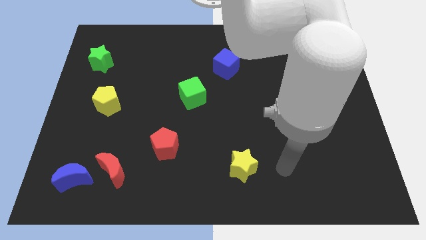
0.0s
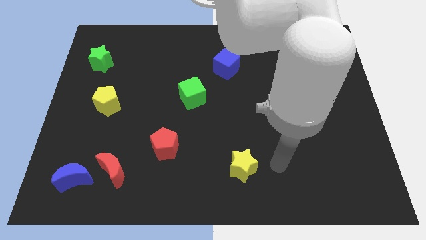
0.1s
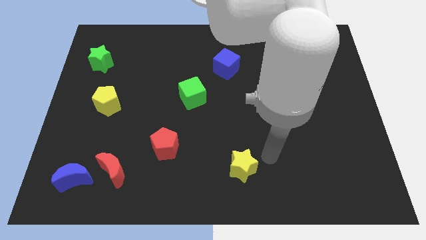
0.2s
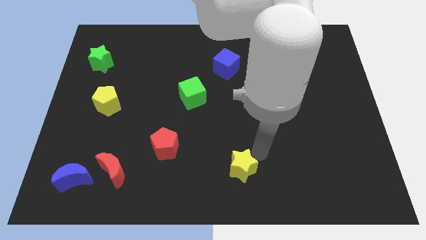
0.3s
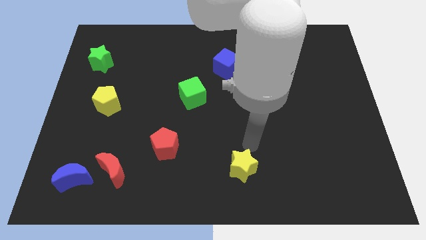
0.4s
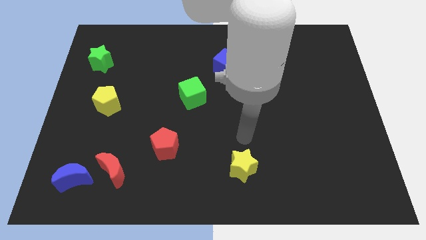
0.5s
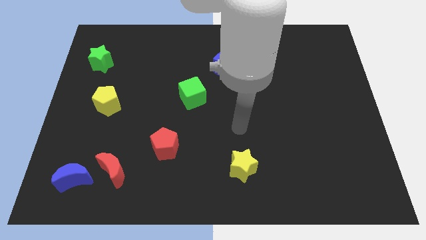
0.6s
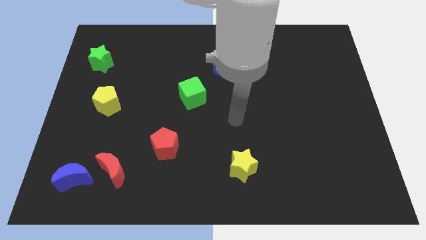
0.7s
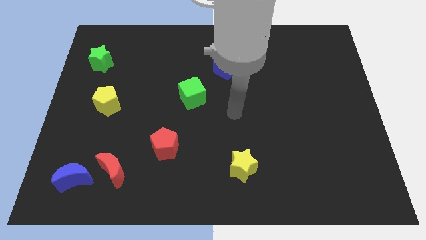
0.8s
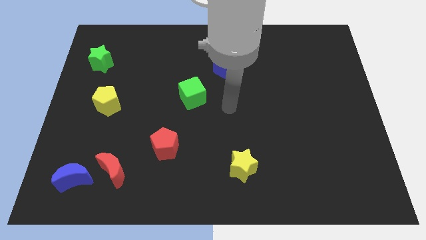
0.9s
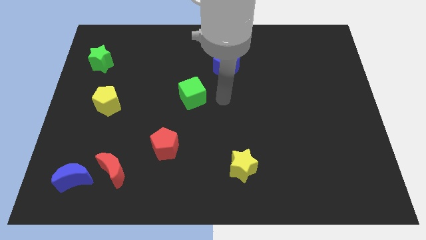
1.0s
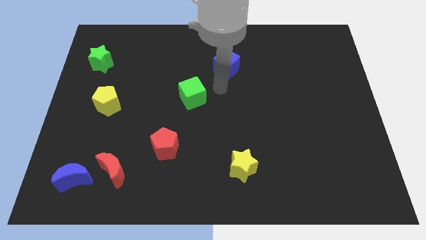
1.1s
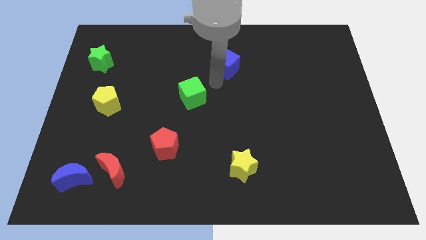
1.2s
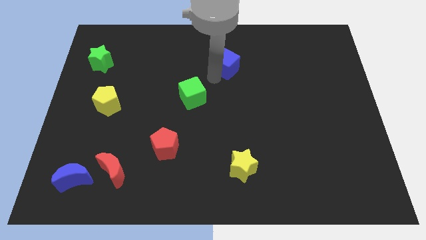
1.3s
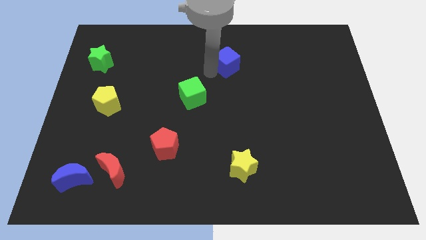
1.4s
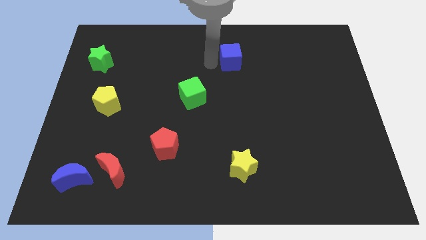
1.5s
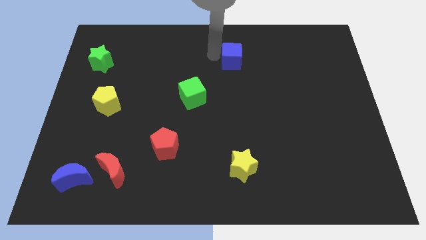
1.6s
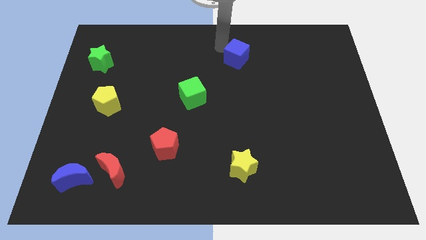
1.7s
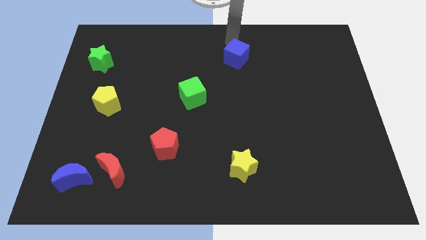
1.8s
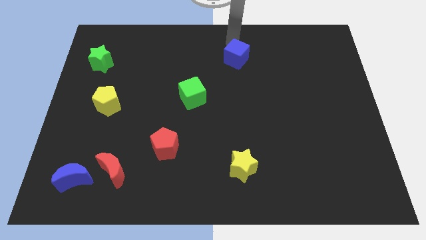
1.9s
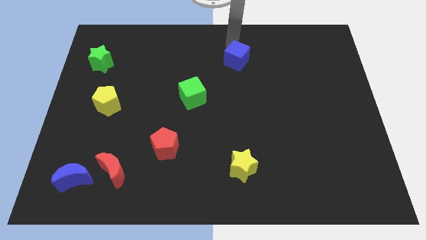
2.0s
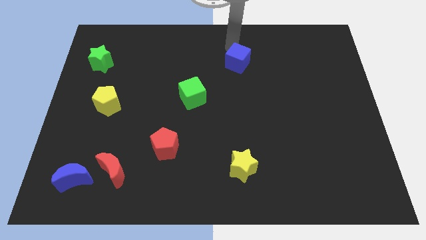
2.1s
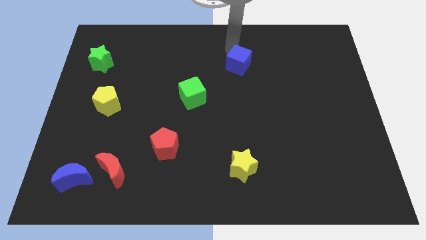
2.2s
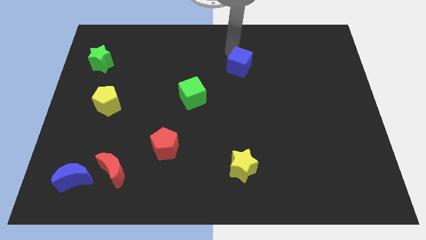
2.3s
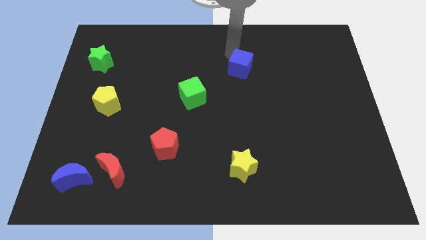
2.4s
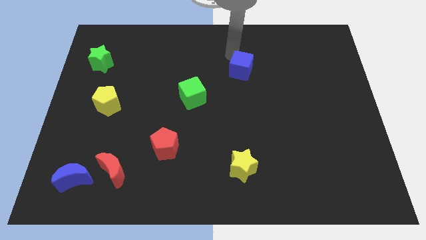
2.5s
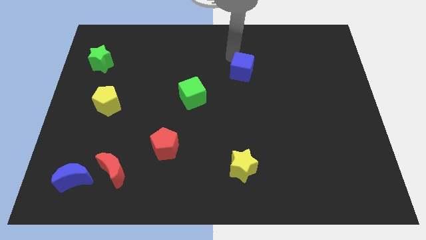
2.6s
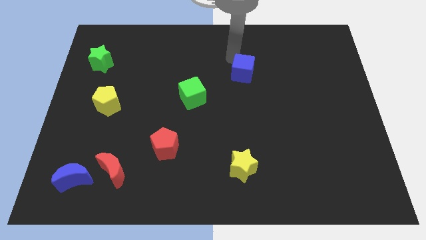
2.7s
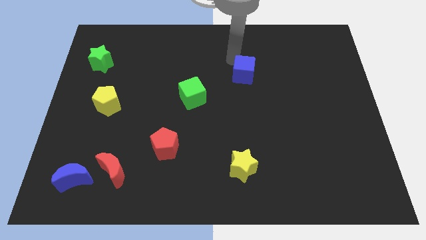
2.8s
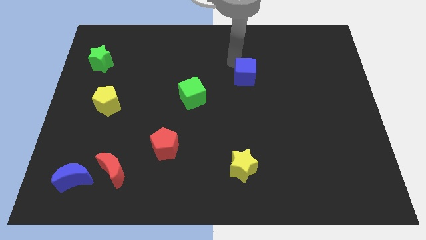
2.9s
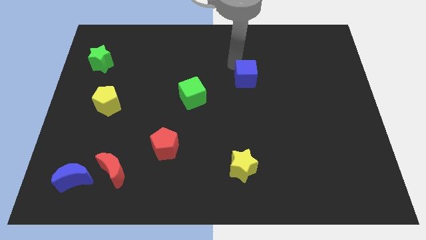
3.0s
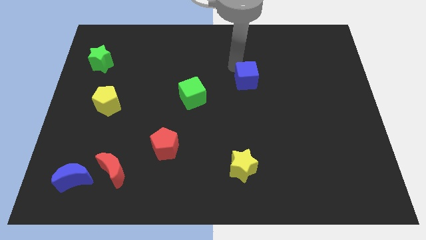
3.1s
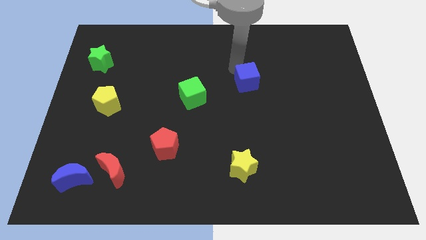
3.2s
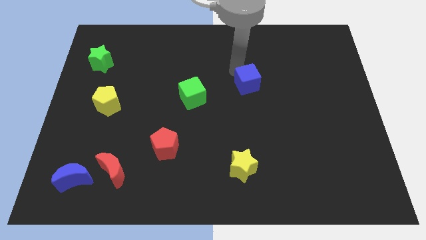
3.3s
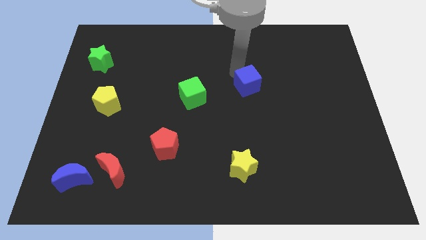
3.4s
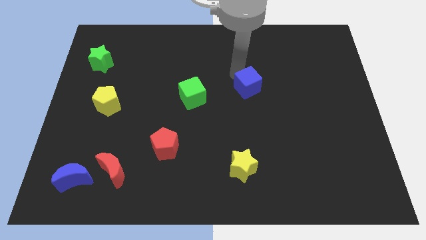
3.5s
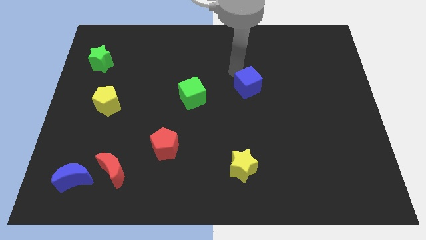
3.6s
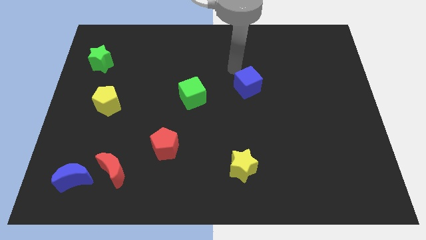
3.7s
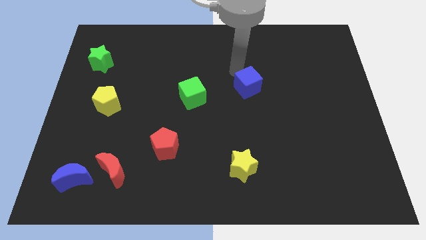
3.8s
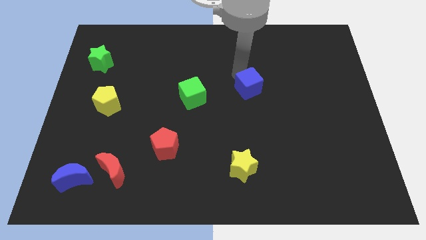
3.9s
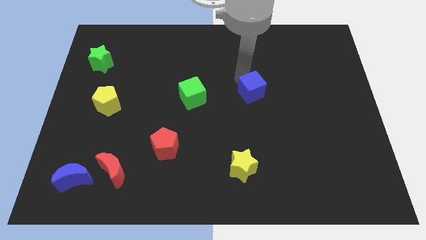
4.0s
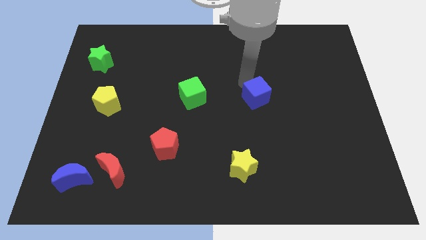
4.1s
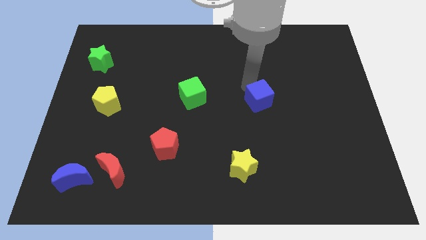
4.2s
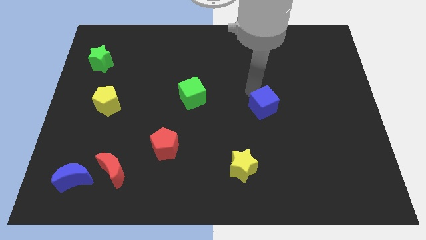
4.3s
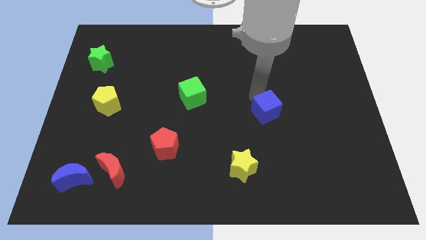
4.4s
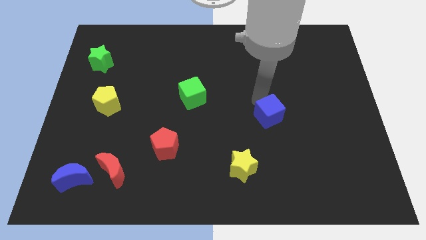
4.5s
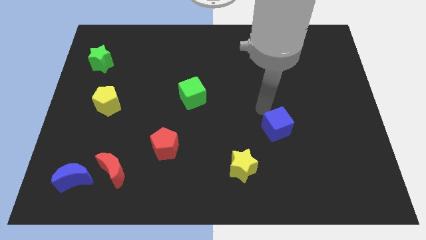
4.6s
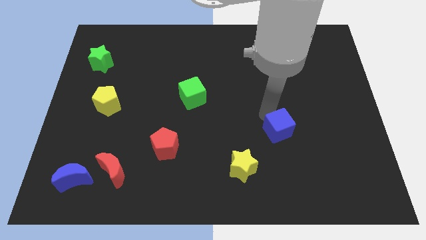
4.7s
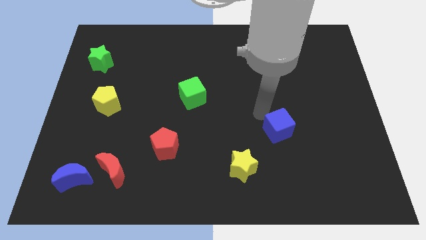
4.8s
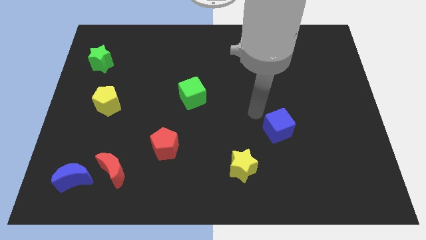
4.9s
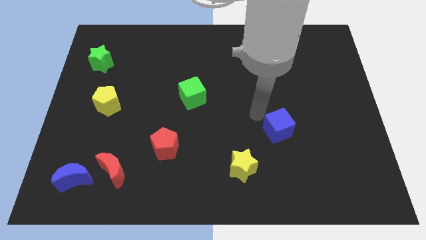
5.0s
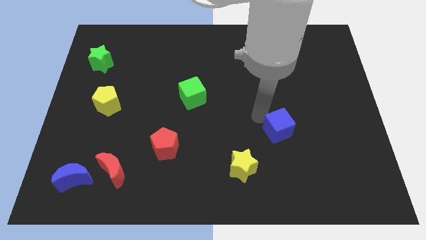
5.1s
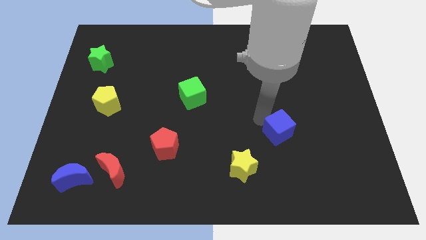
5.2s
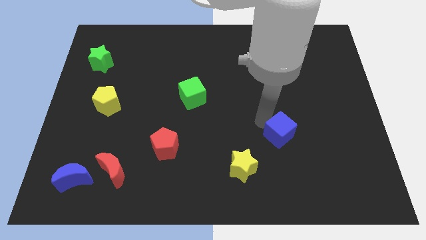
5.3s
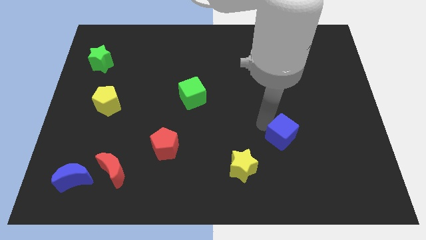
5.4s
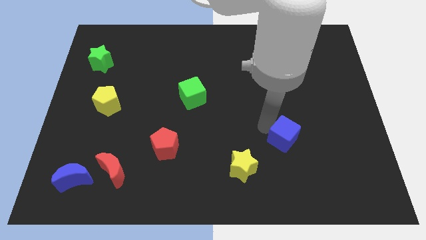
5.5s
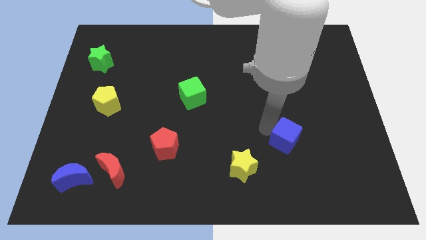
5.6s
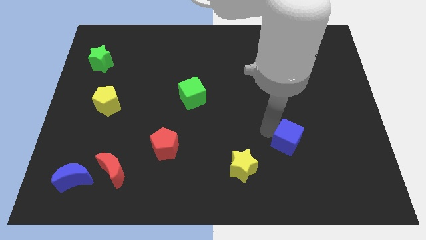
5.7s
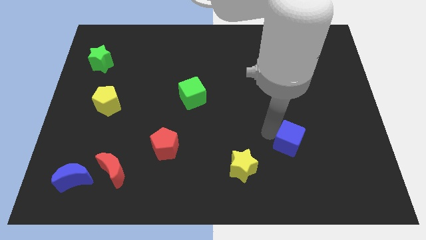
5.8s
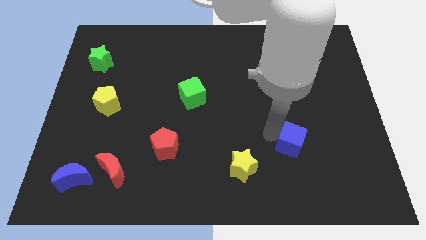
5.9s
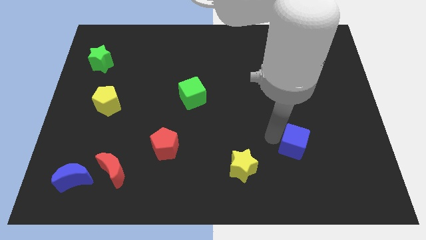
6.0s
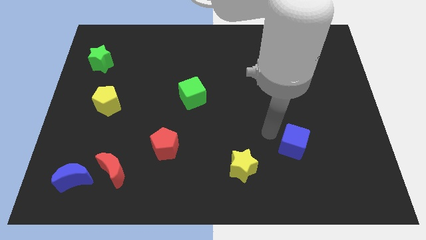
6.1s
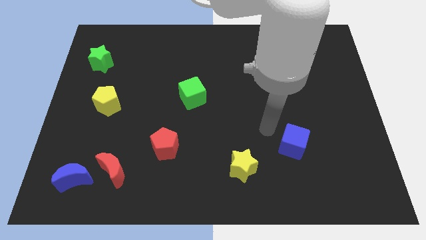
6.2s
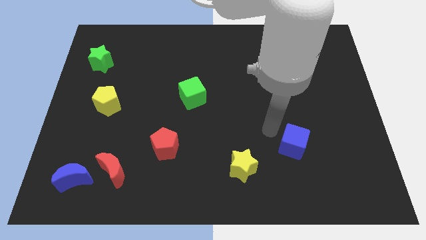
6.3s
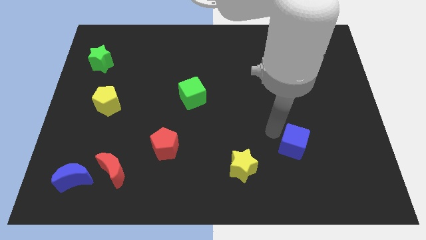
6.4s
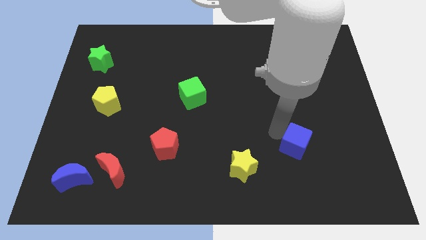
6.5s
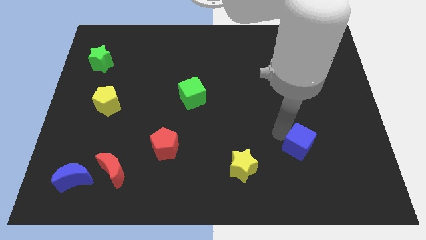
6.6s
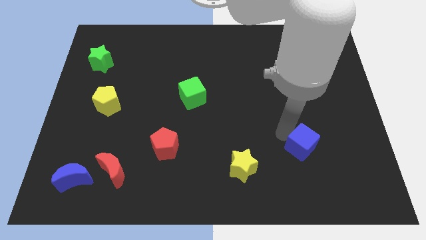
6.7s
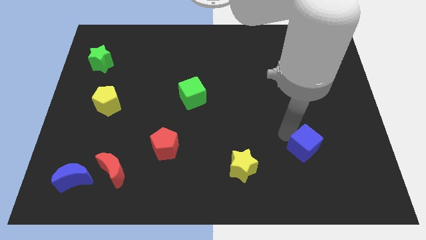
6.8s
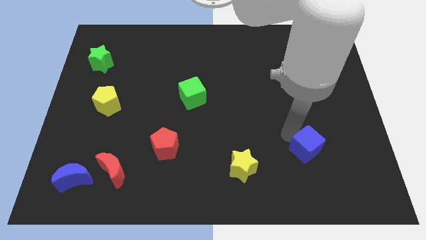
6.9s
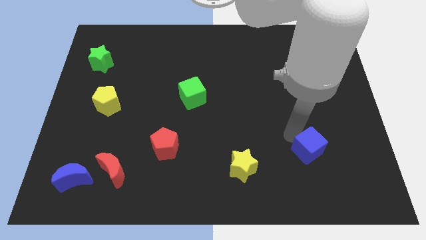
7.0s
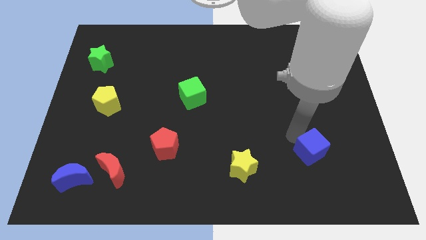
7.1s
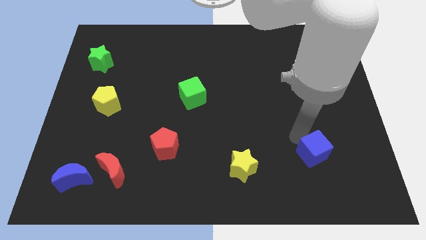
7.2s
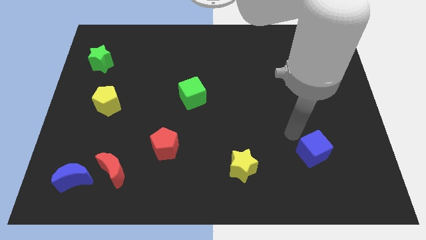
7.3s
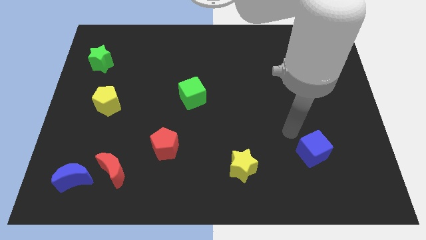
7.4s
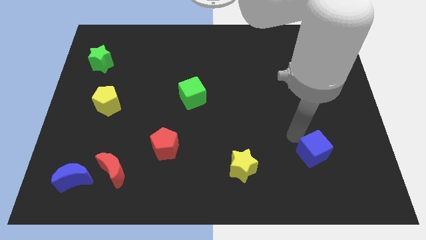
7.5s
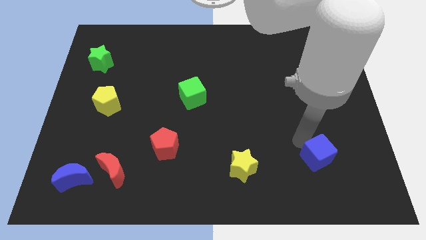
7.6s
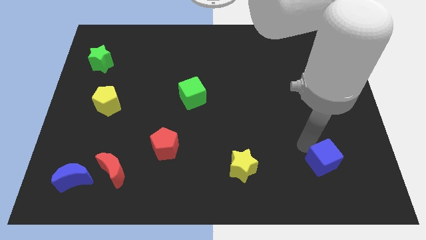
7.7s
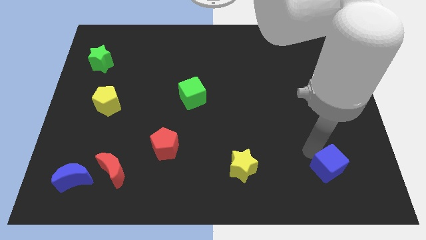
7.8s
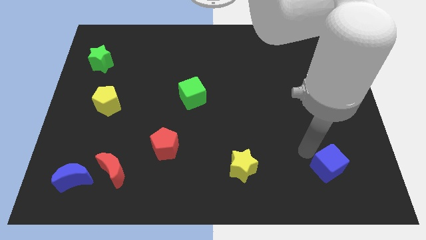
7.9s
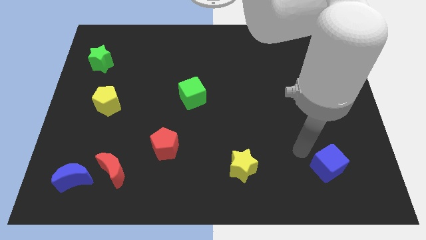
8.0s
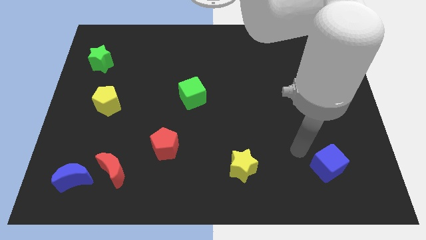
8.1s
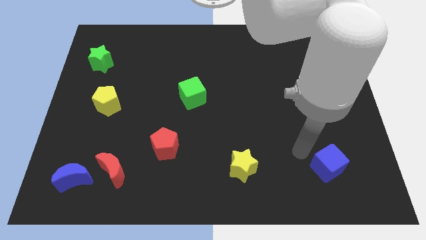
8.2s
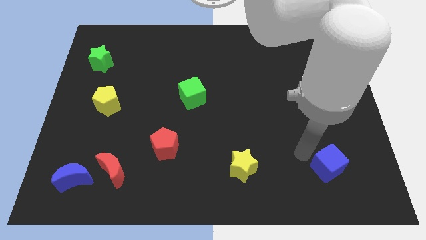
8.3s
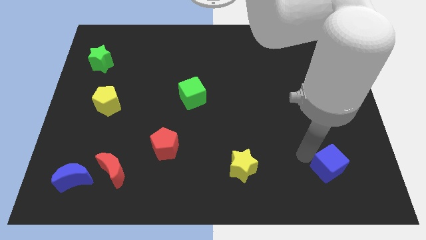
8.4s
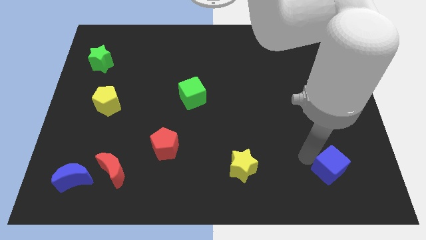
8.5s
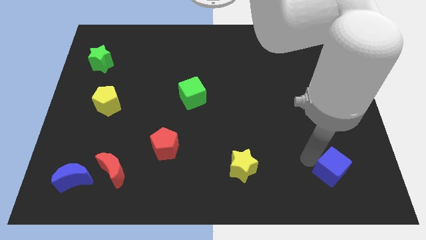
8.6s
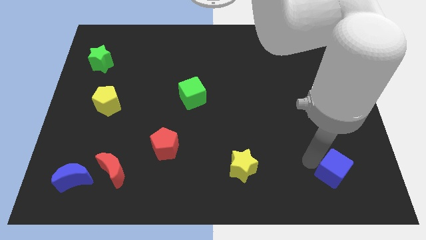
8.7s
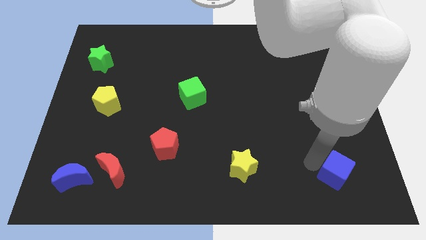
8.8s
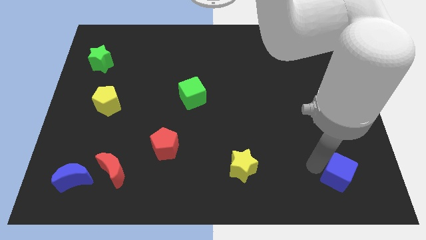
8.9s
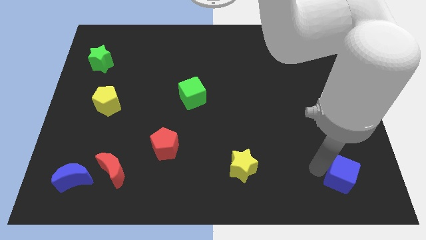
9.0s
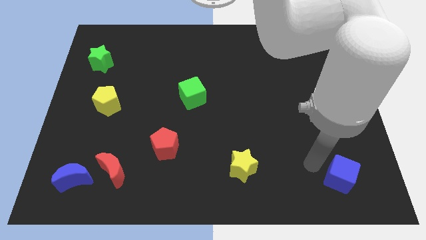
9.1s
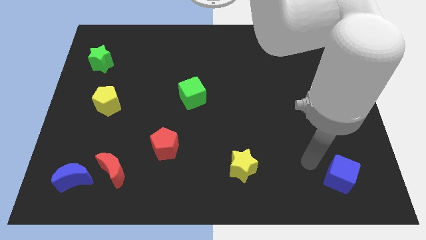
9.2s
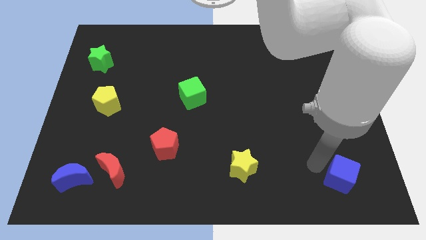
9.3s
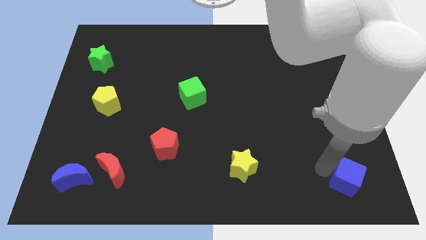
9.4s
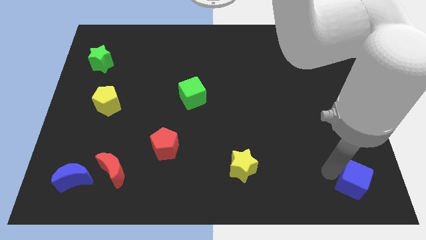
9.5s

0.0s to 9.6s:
slide the blue cube to the lower right corner
